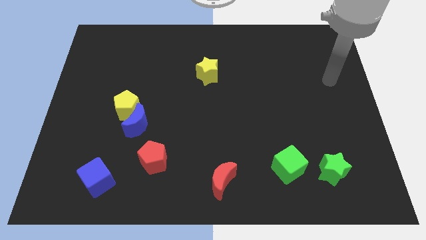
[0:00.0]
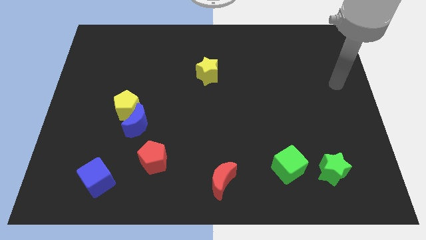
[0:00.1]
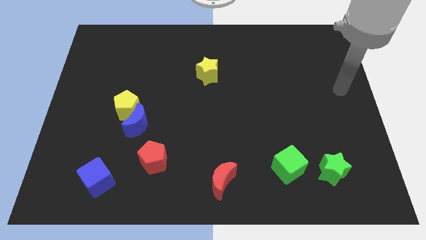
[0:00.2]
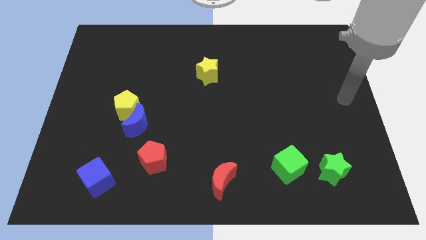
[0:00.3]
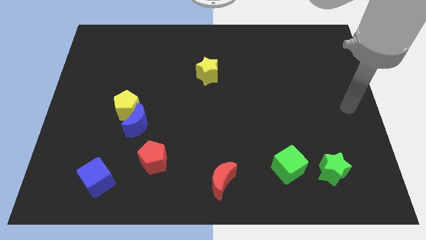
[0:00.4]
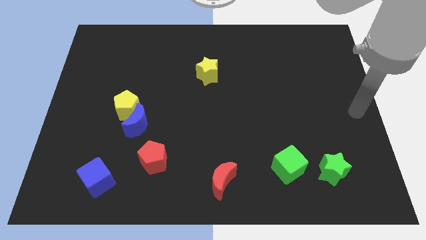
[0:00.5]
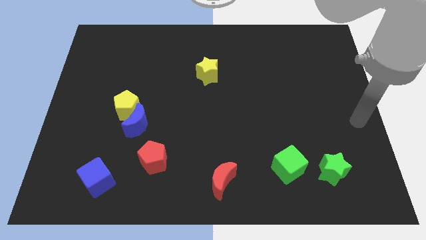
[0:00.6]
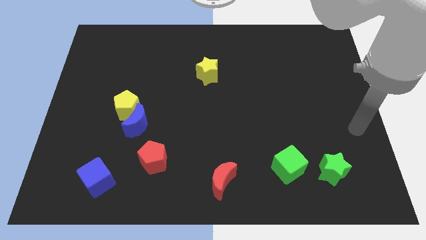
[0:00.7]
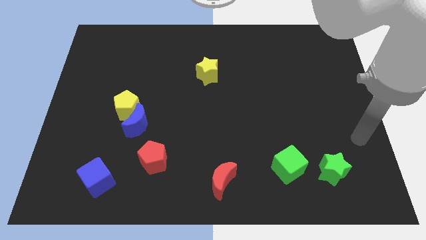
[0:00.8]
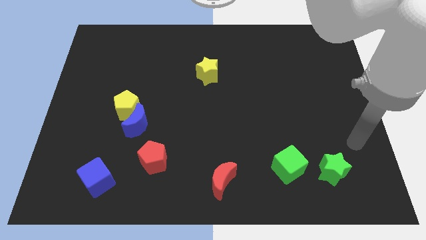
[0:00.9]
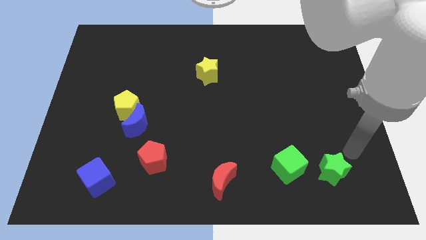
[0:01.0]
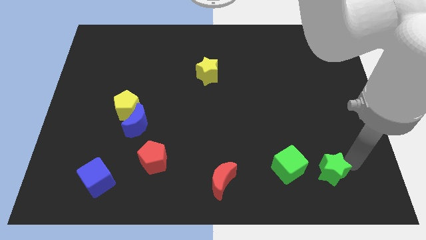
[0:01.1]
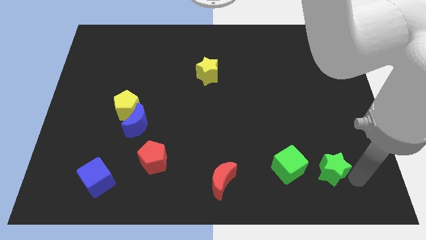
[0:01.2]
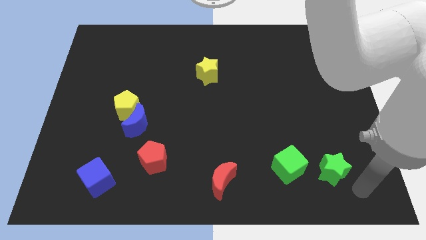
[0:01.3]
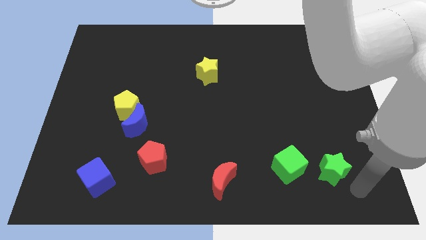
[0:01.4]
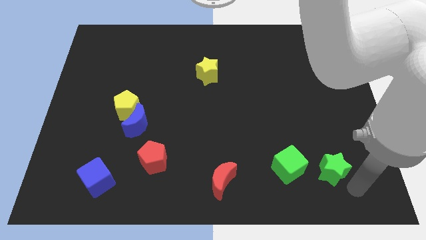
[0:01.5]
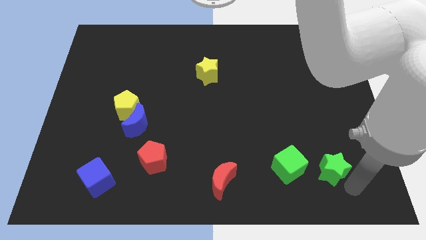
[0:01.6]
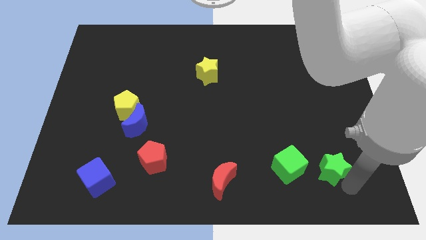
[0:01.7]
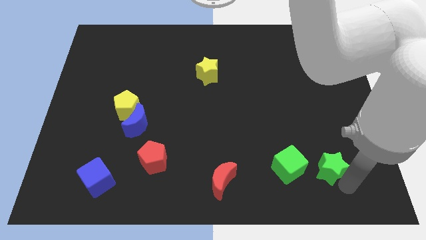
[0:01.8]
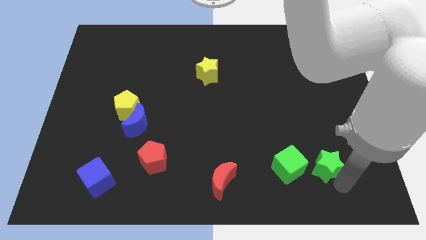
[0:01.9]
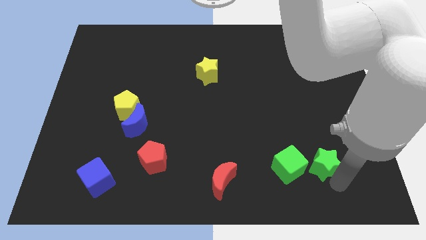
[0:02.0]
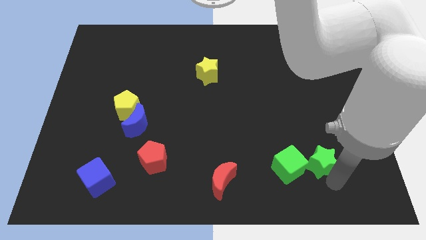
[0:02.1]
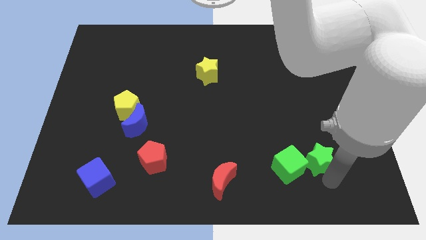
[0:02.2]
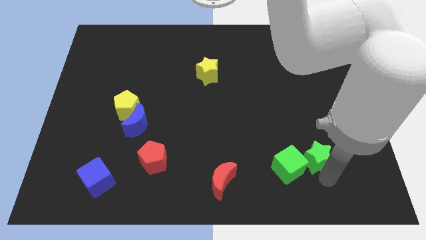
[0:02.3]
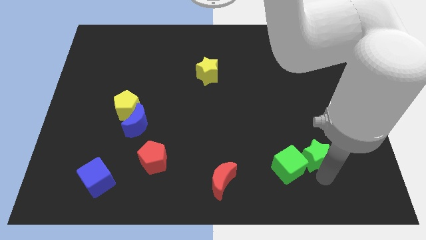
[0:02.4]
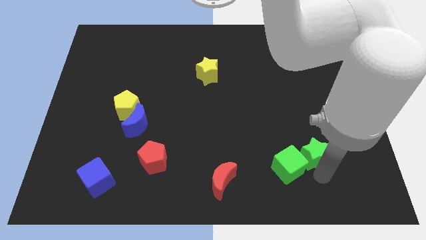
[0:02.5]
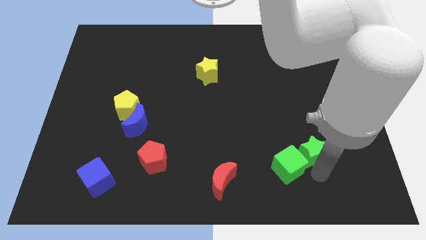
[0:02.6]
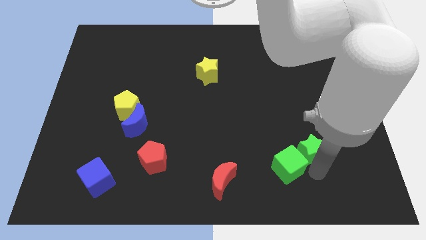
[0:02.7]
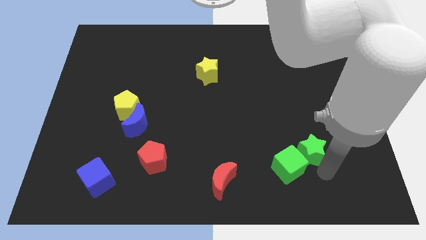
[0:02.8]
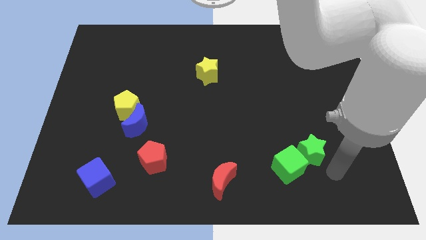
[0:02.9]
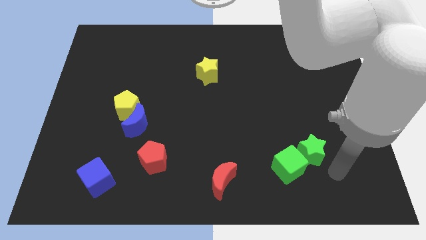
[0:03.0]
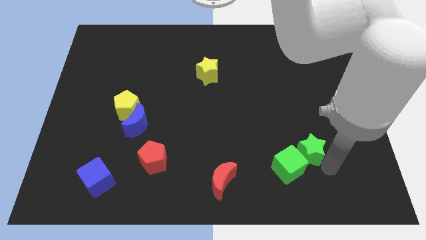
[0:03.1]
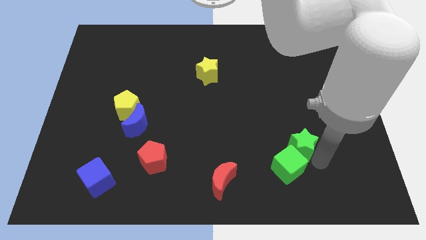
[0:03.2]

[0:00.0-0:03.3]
push the green star slightly up and left

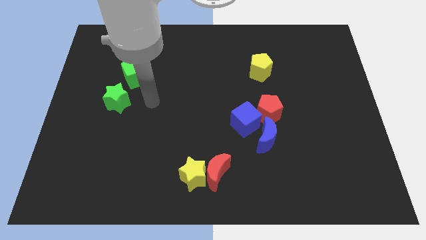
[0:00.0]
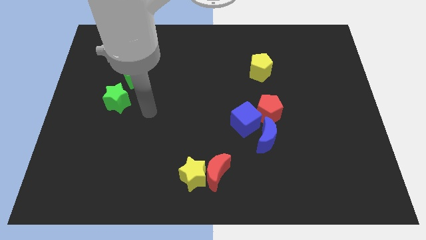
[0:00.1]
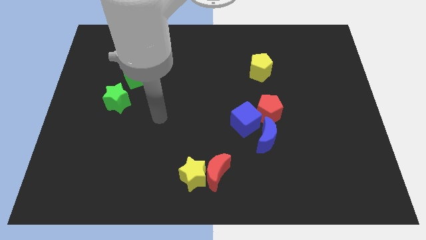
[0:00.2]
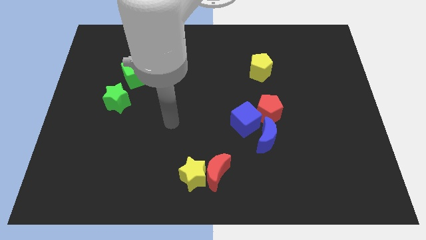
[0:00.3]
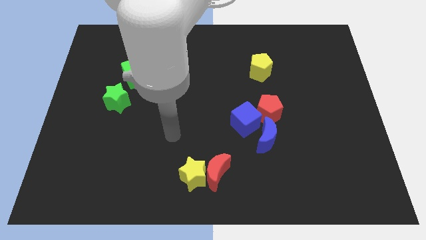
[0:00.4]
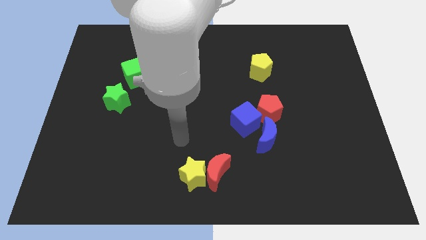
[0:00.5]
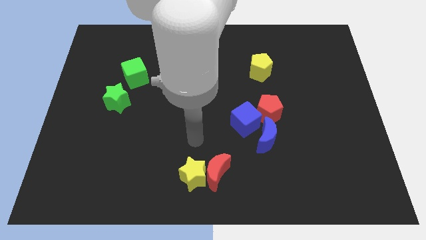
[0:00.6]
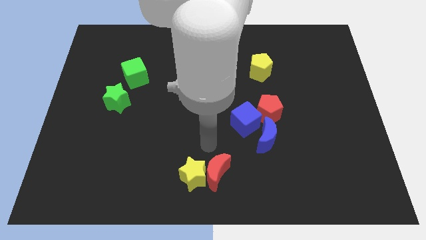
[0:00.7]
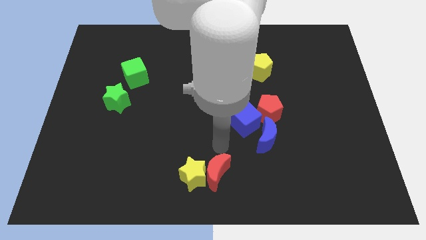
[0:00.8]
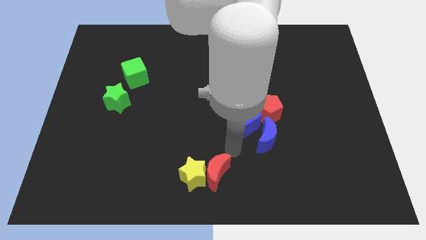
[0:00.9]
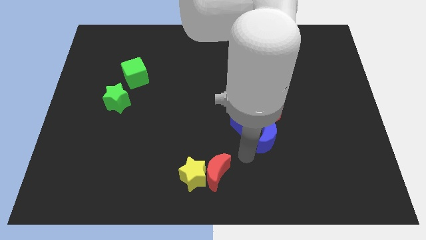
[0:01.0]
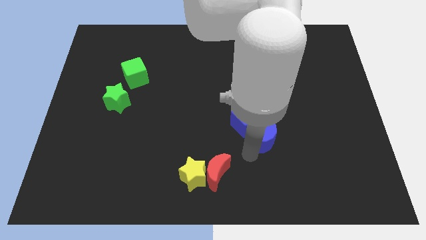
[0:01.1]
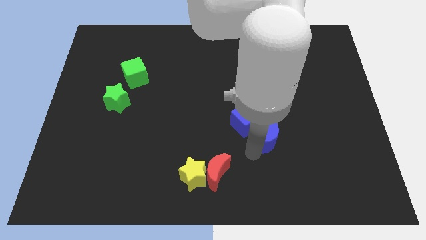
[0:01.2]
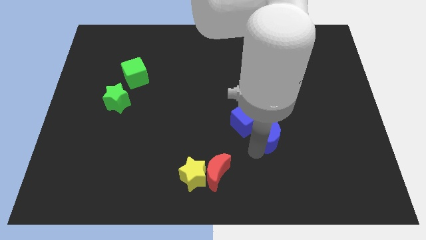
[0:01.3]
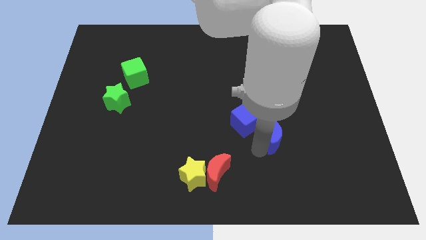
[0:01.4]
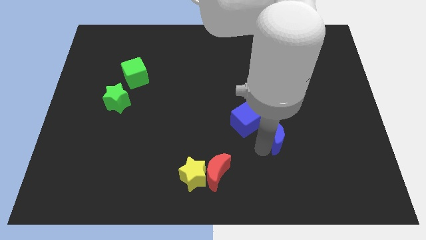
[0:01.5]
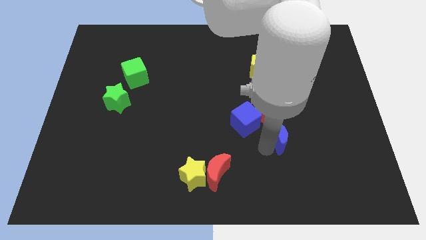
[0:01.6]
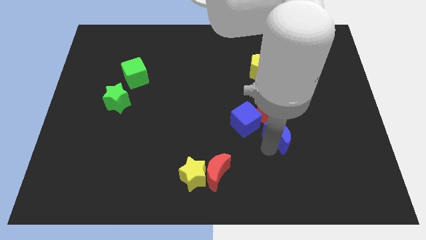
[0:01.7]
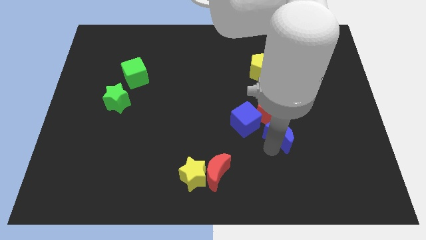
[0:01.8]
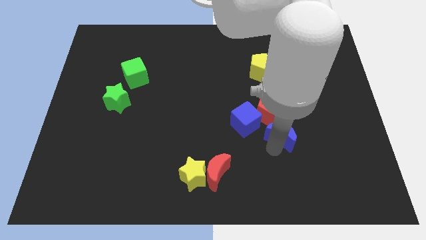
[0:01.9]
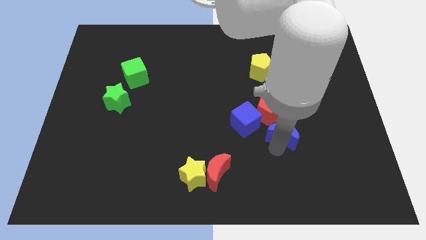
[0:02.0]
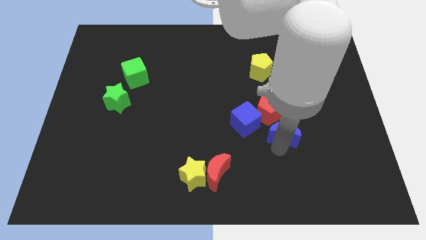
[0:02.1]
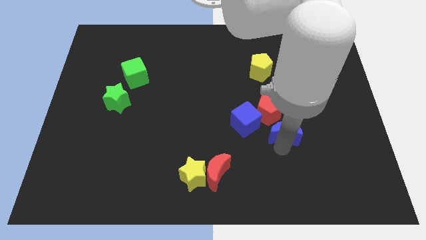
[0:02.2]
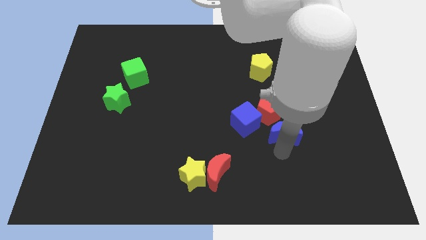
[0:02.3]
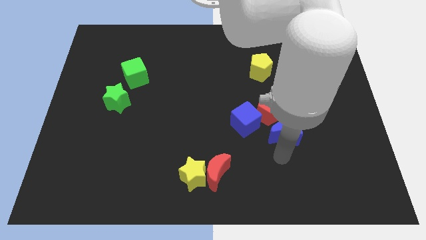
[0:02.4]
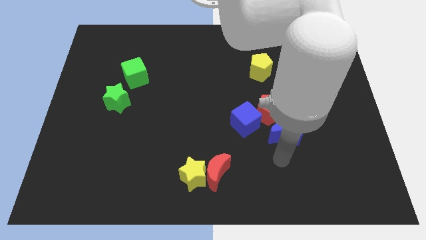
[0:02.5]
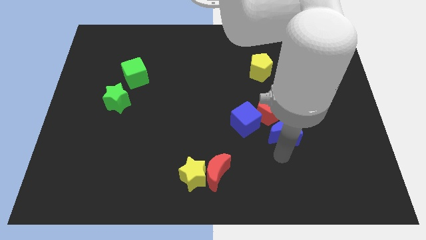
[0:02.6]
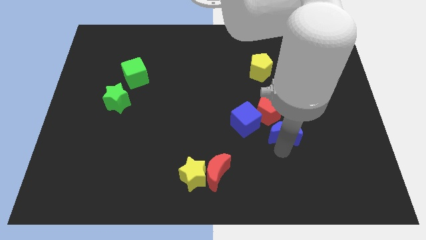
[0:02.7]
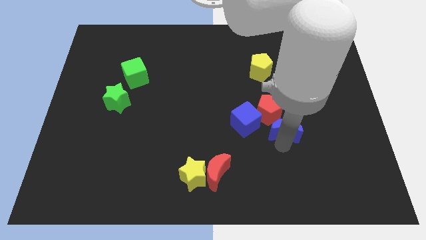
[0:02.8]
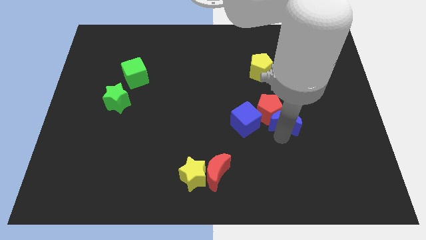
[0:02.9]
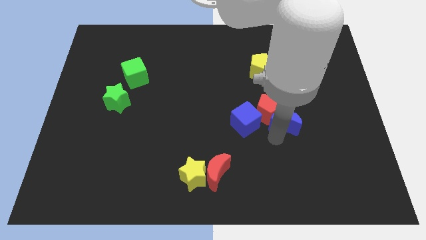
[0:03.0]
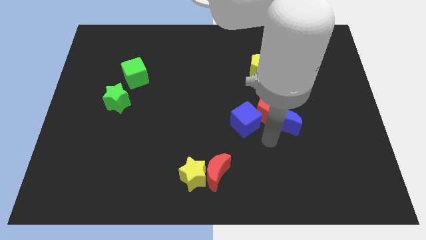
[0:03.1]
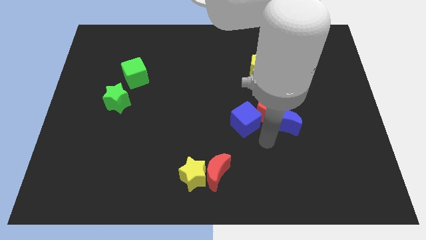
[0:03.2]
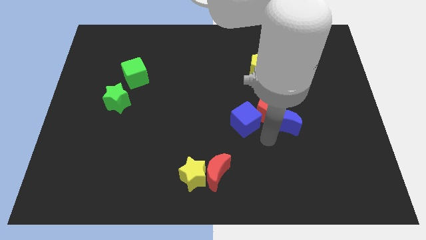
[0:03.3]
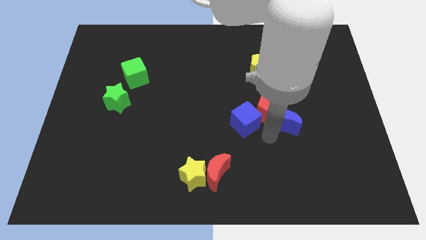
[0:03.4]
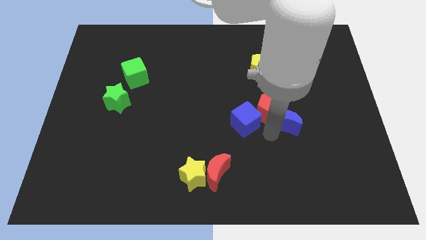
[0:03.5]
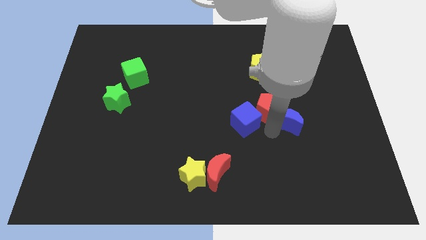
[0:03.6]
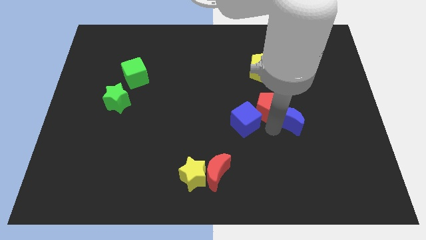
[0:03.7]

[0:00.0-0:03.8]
slightly push the blue moon upwards and to the right diagonally

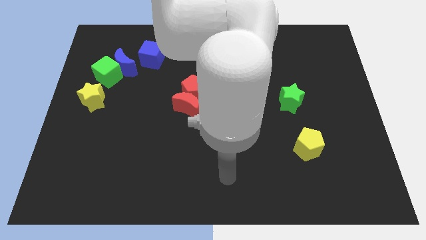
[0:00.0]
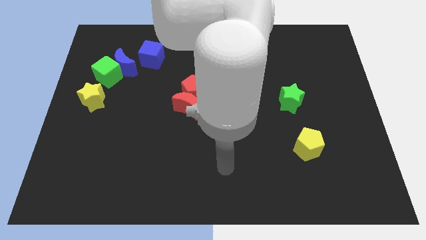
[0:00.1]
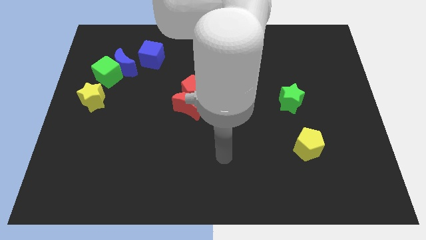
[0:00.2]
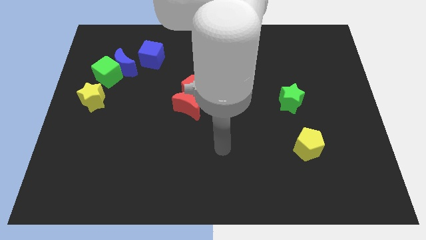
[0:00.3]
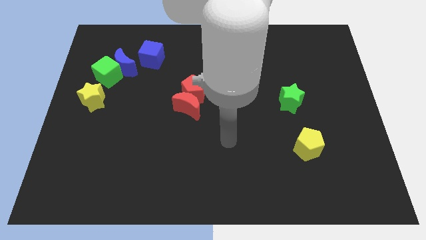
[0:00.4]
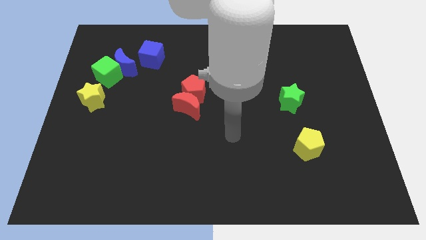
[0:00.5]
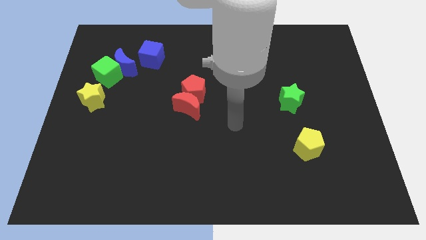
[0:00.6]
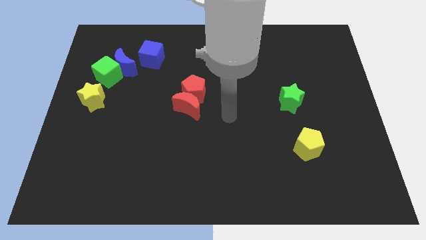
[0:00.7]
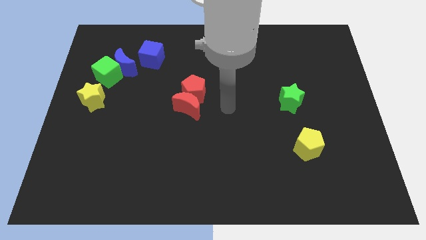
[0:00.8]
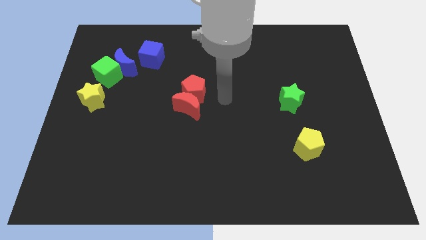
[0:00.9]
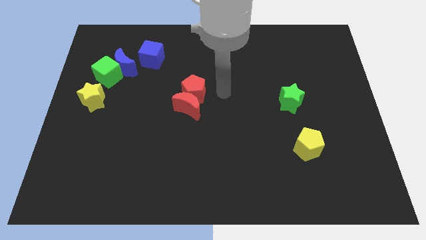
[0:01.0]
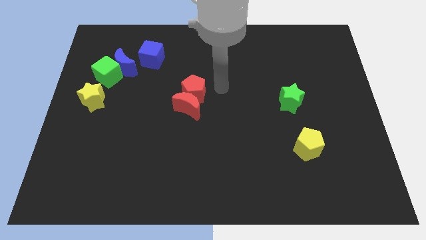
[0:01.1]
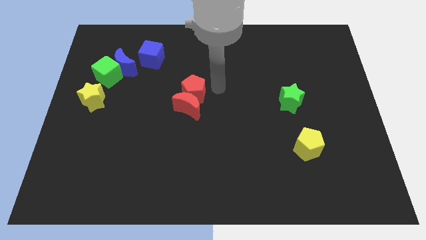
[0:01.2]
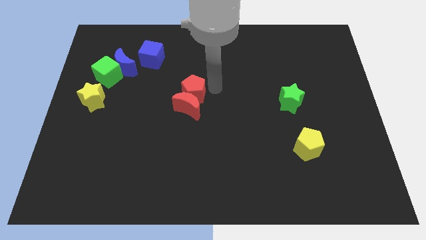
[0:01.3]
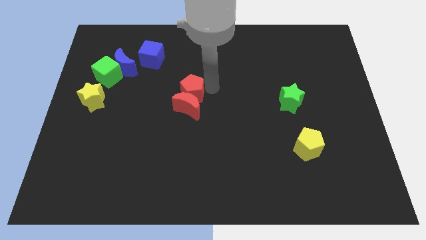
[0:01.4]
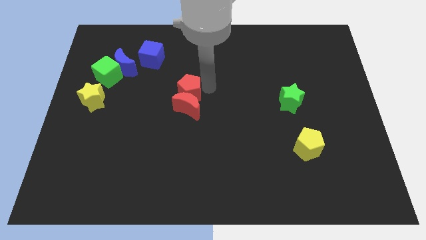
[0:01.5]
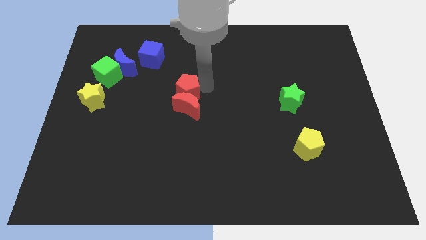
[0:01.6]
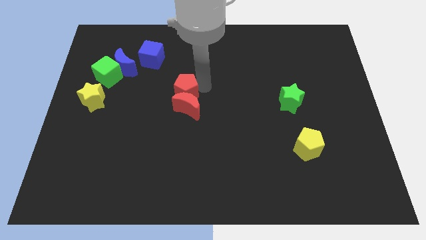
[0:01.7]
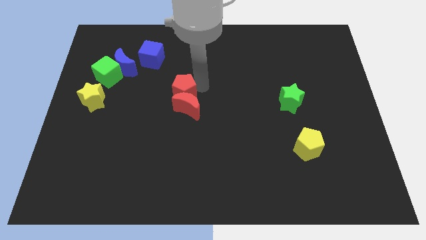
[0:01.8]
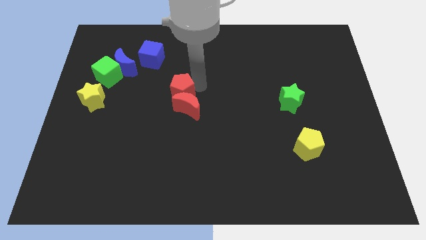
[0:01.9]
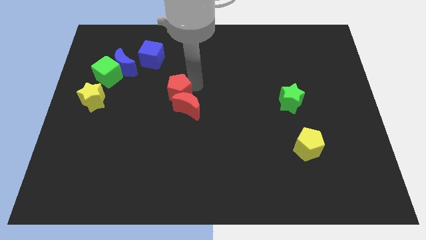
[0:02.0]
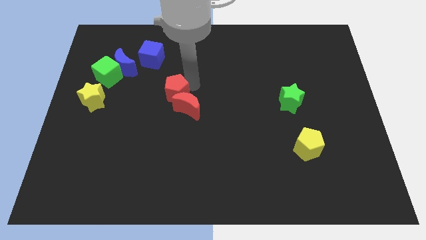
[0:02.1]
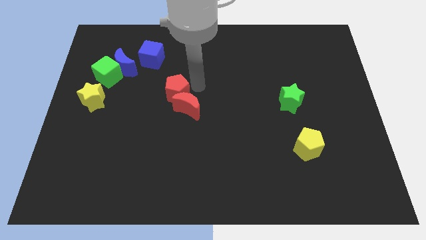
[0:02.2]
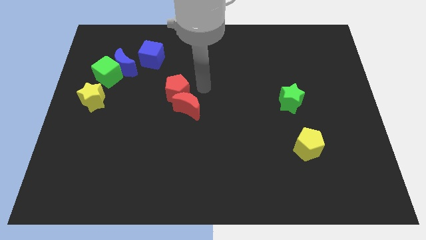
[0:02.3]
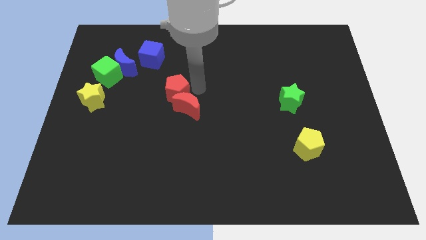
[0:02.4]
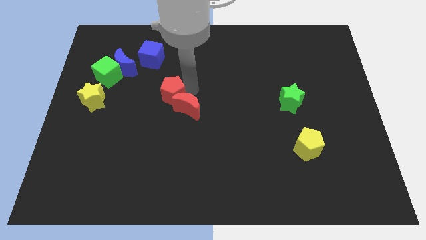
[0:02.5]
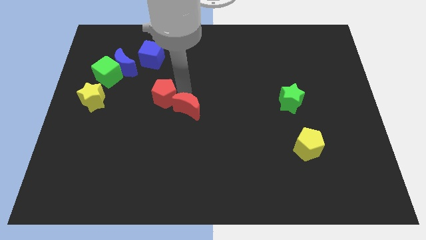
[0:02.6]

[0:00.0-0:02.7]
move the red pentagon somewhat left
